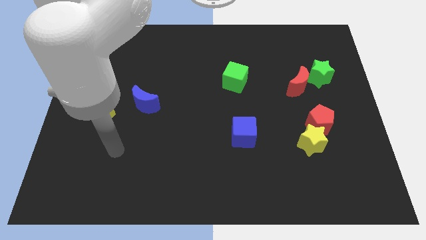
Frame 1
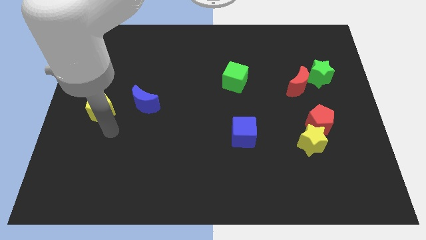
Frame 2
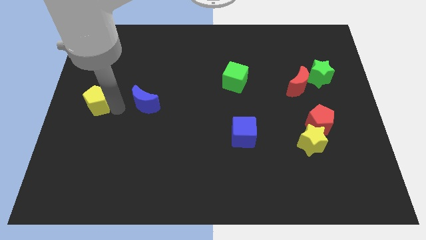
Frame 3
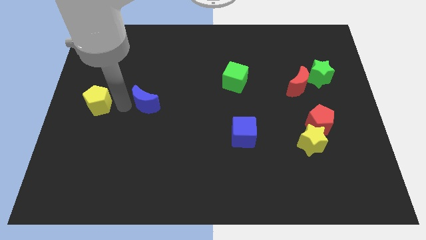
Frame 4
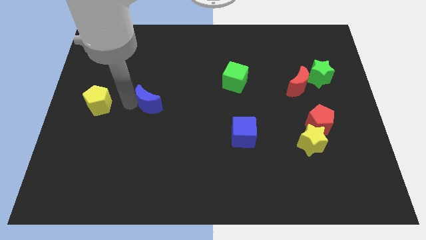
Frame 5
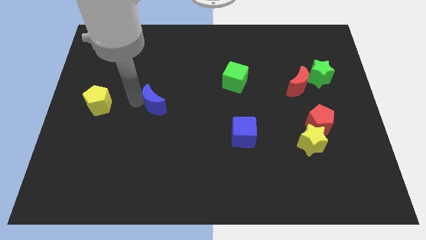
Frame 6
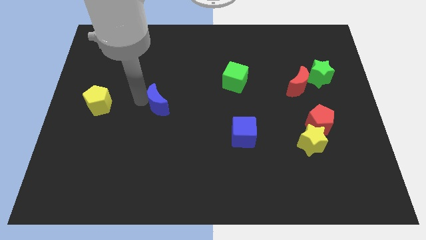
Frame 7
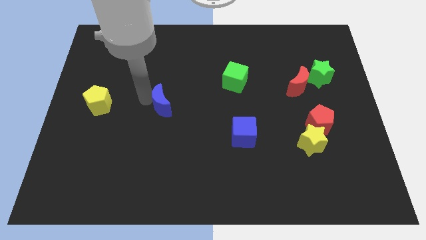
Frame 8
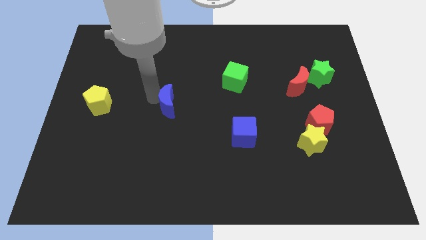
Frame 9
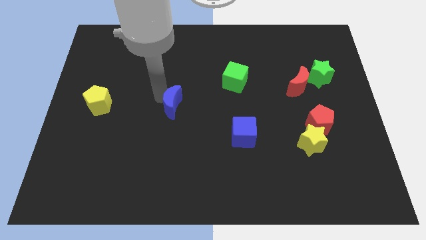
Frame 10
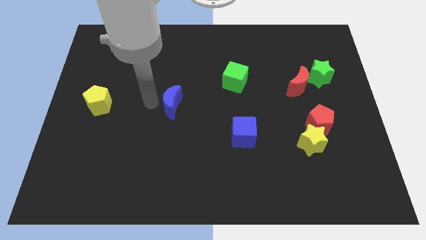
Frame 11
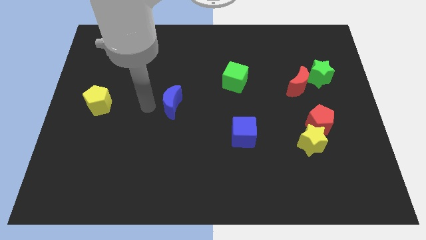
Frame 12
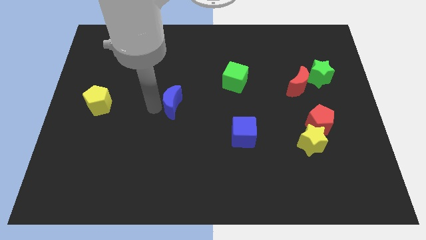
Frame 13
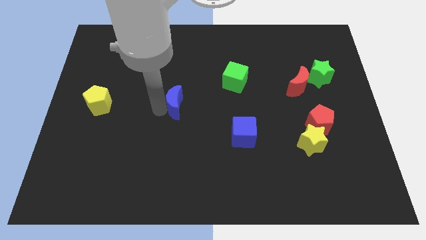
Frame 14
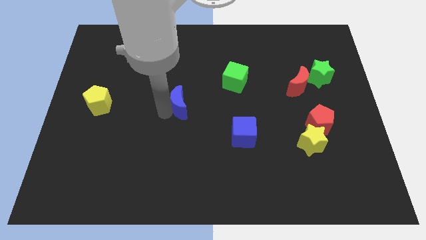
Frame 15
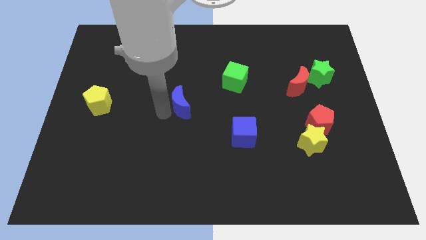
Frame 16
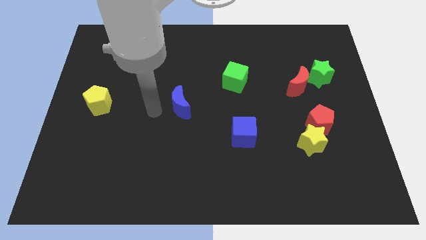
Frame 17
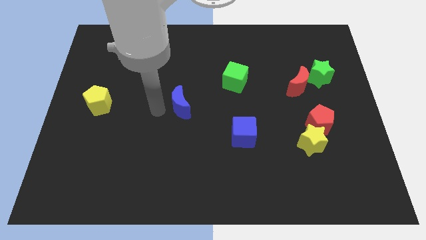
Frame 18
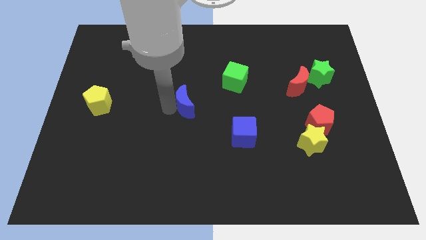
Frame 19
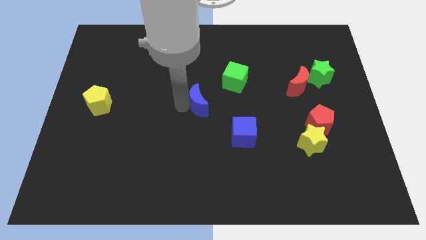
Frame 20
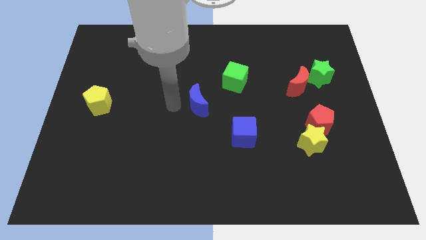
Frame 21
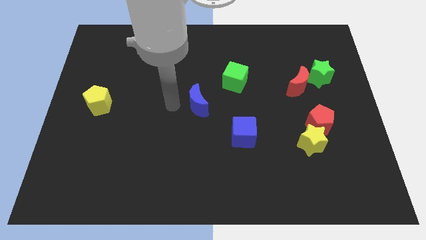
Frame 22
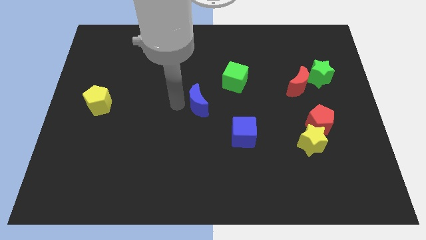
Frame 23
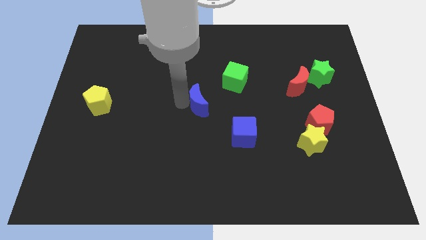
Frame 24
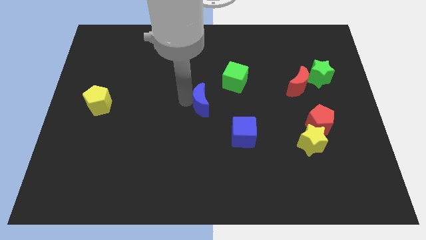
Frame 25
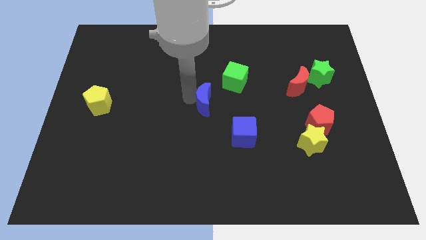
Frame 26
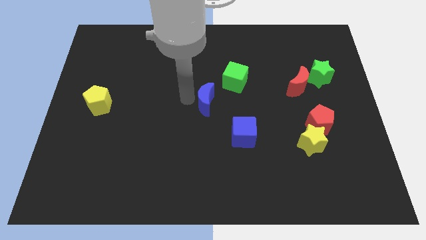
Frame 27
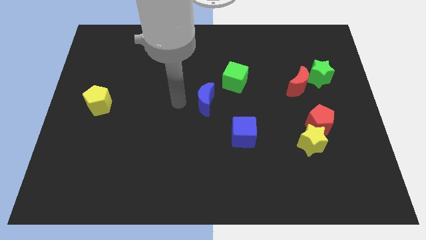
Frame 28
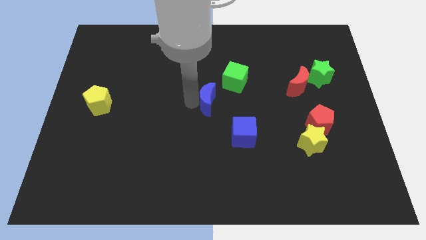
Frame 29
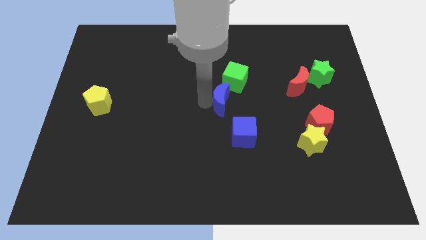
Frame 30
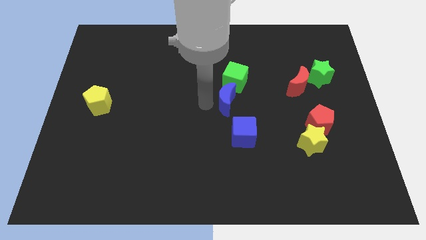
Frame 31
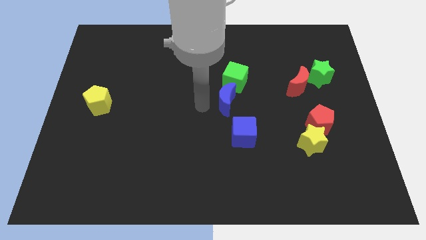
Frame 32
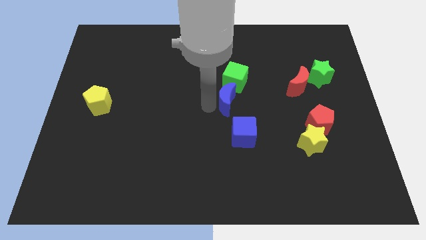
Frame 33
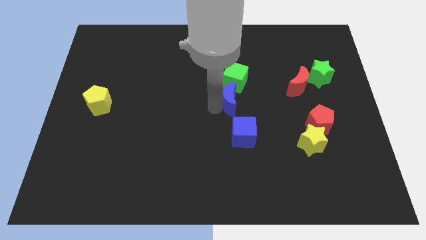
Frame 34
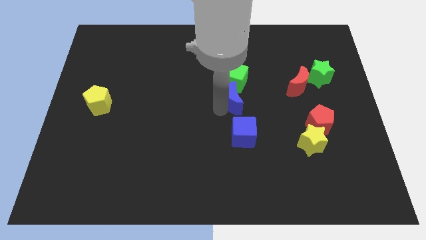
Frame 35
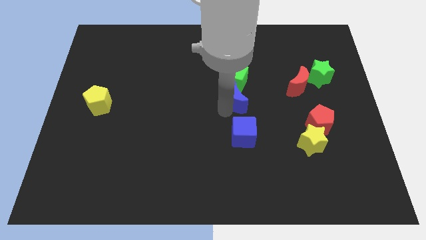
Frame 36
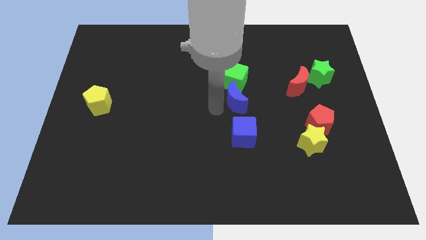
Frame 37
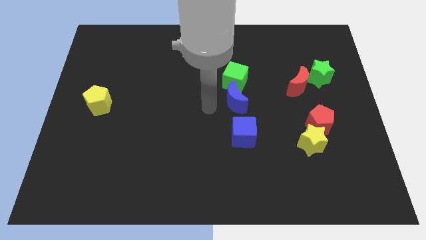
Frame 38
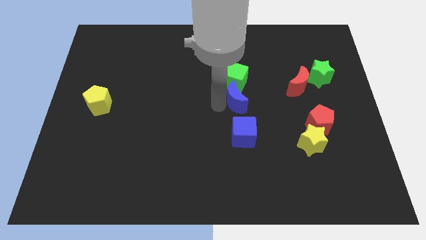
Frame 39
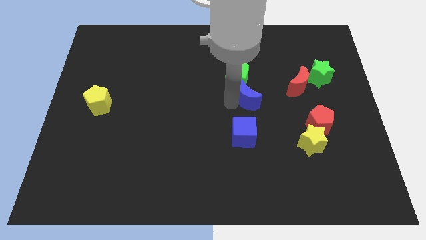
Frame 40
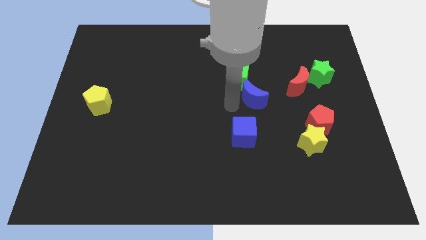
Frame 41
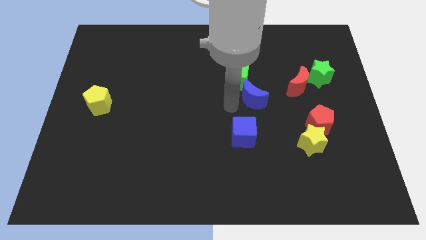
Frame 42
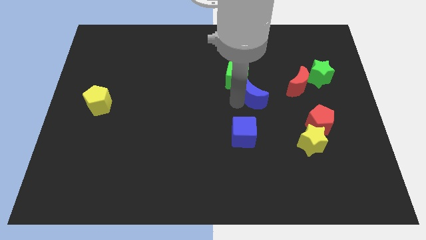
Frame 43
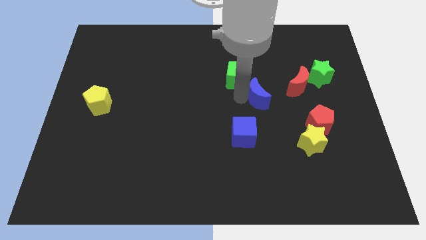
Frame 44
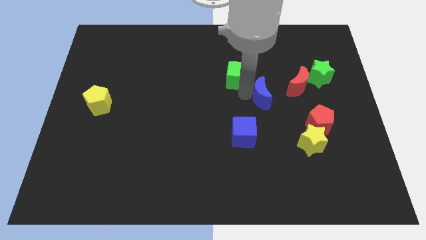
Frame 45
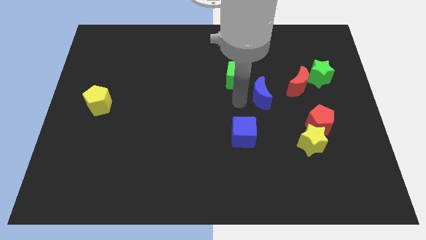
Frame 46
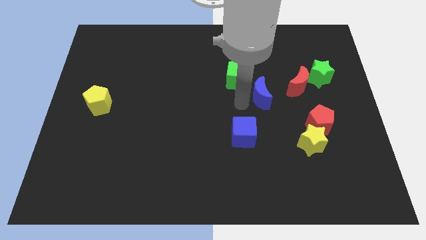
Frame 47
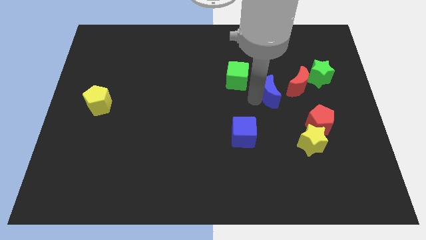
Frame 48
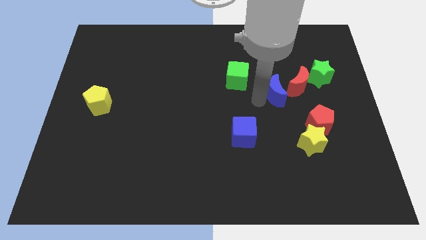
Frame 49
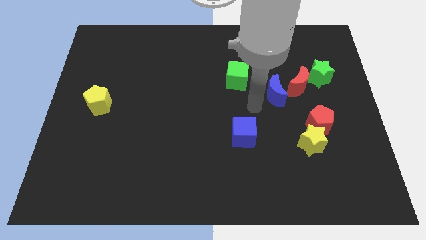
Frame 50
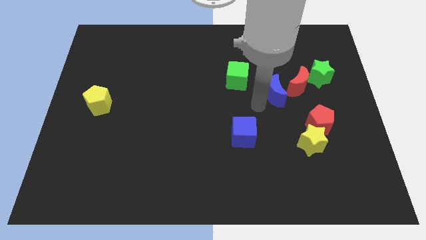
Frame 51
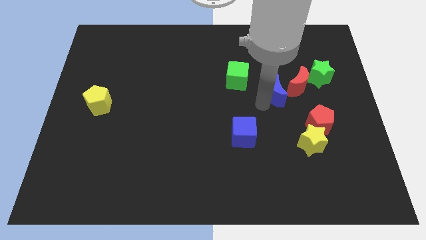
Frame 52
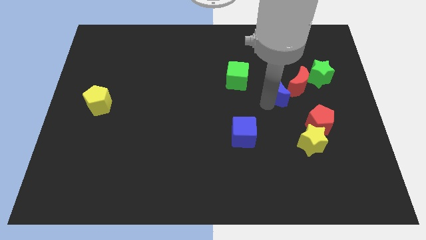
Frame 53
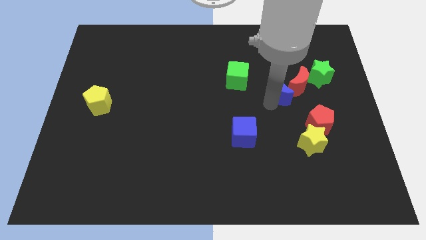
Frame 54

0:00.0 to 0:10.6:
put the blue moon next to the red moon

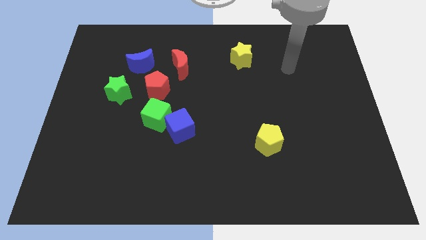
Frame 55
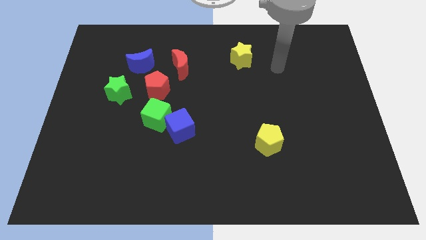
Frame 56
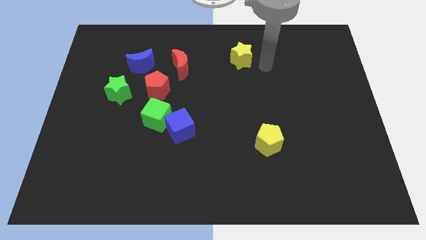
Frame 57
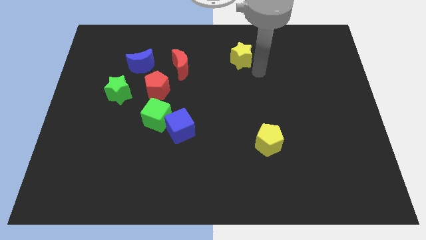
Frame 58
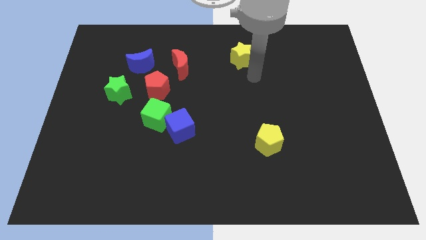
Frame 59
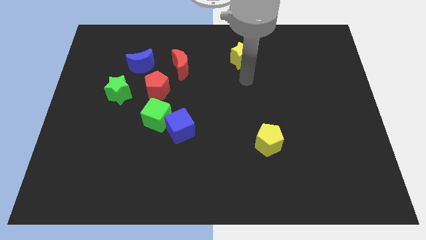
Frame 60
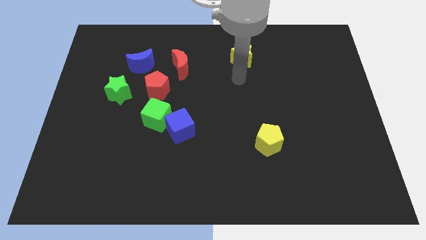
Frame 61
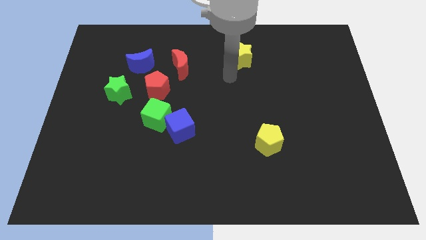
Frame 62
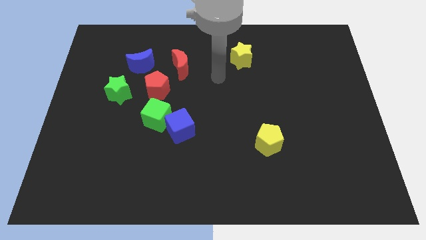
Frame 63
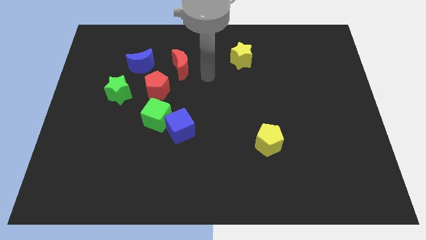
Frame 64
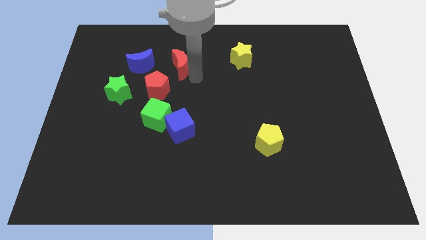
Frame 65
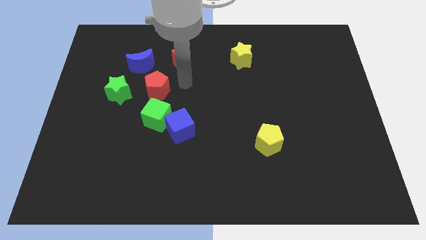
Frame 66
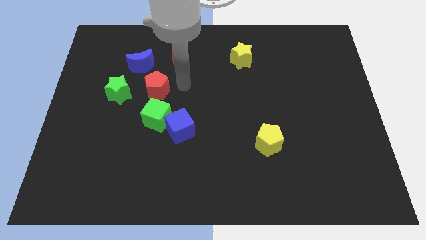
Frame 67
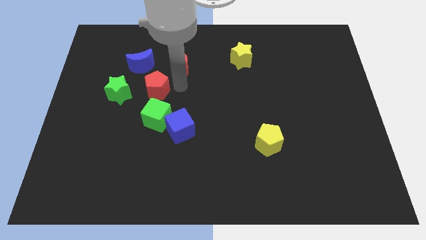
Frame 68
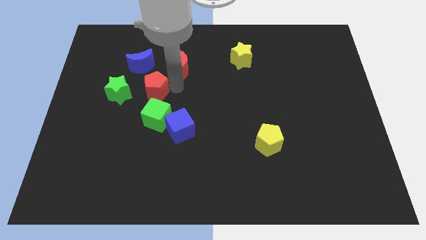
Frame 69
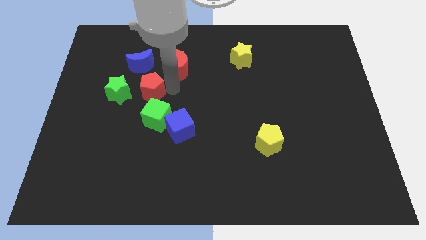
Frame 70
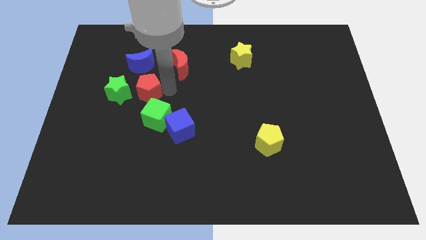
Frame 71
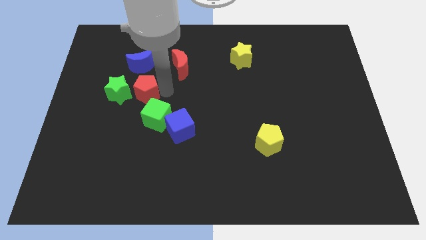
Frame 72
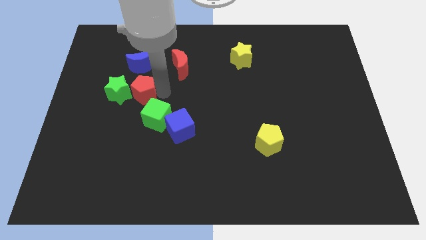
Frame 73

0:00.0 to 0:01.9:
move the red pentagon next to the green star

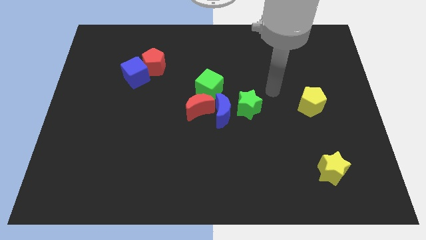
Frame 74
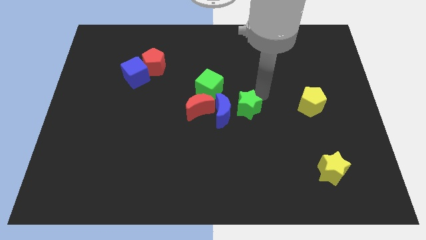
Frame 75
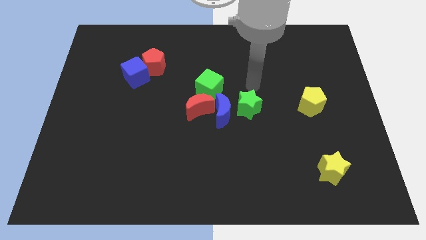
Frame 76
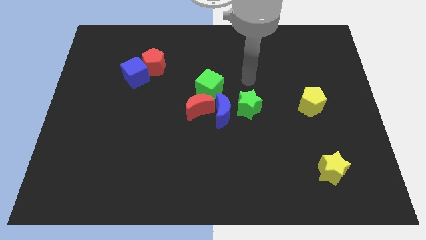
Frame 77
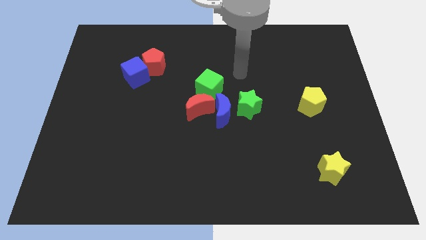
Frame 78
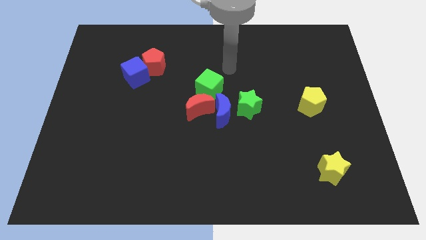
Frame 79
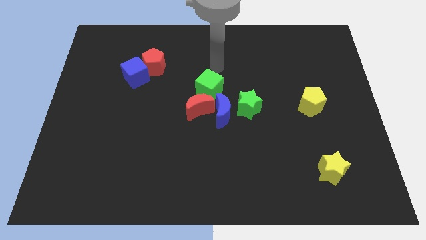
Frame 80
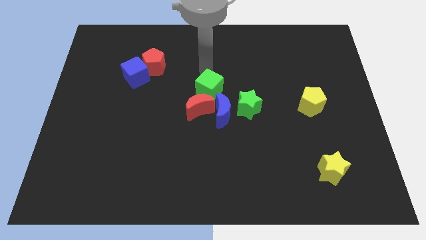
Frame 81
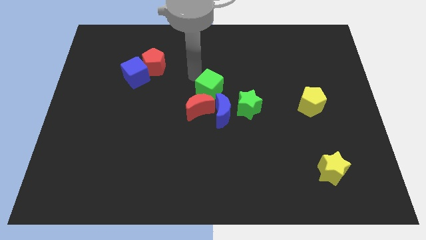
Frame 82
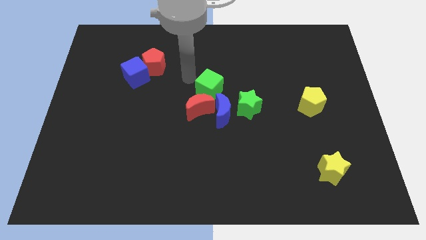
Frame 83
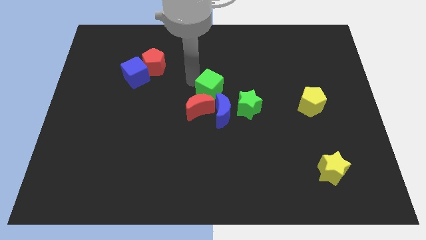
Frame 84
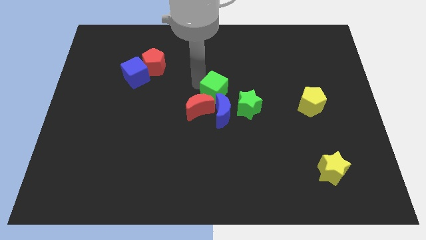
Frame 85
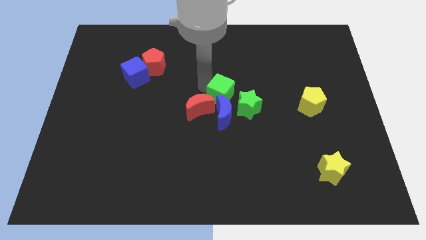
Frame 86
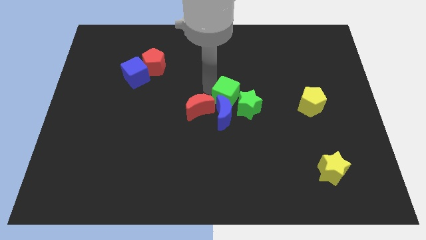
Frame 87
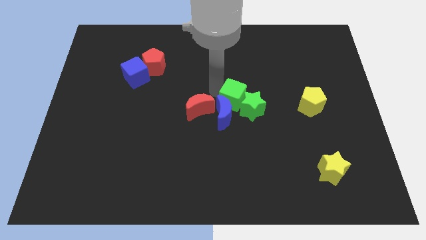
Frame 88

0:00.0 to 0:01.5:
move the green cube close to the green star
